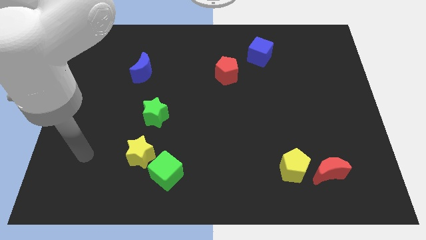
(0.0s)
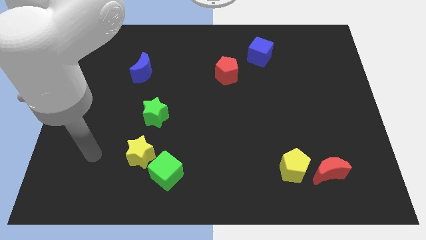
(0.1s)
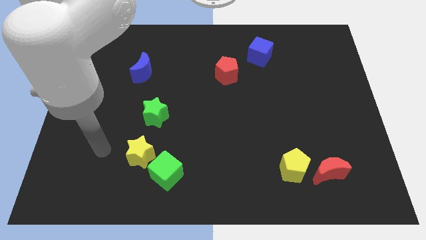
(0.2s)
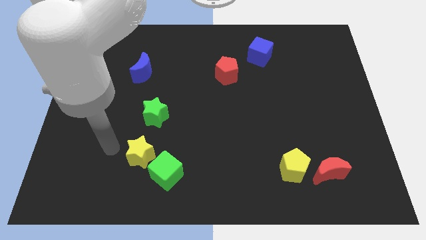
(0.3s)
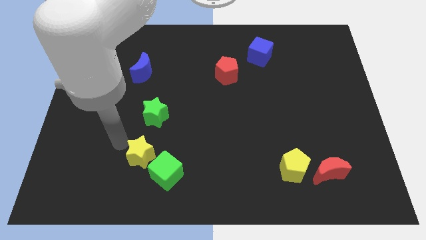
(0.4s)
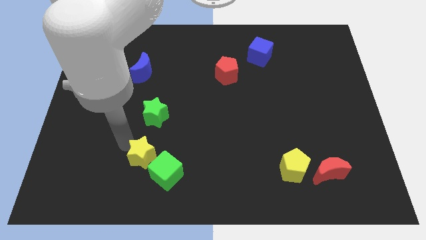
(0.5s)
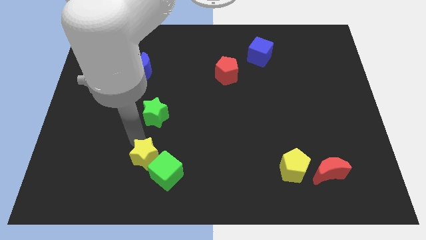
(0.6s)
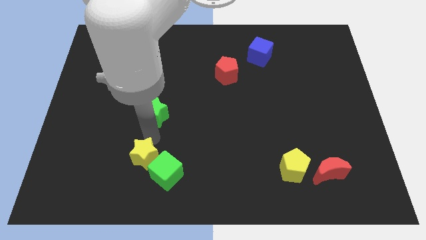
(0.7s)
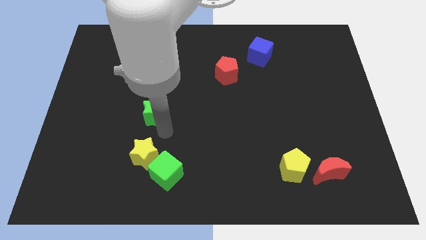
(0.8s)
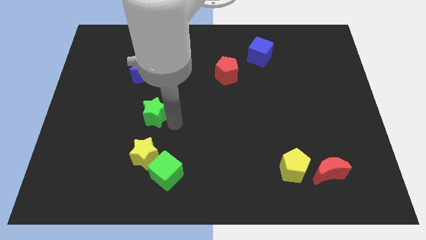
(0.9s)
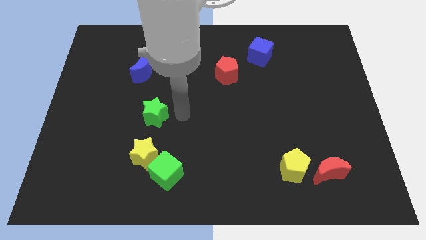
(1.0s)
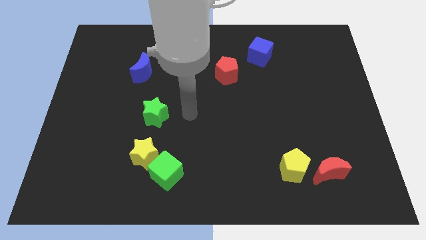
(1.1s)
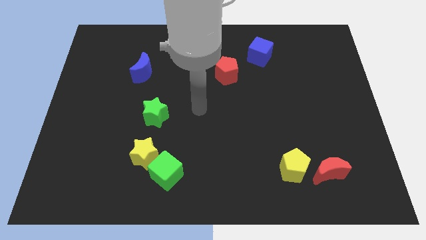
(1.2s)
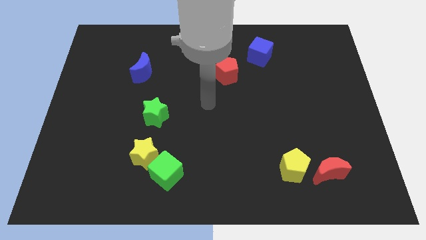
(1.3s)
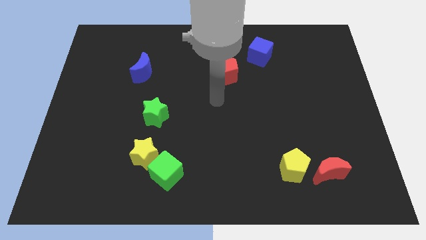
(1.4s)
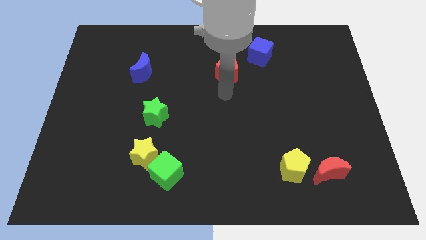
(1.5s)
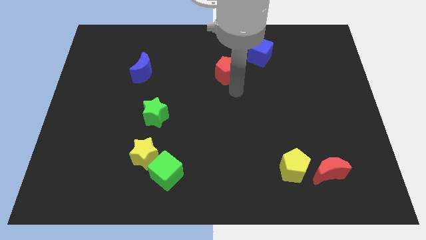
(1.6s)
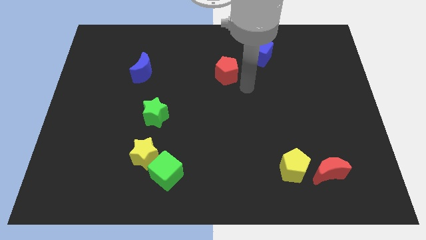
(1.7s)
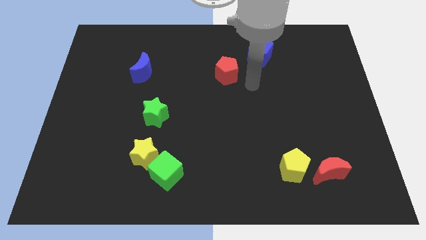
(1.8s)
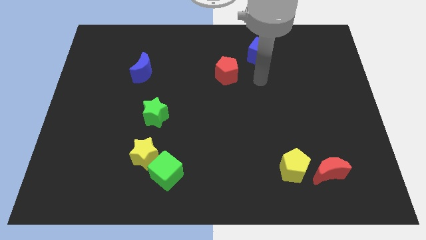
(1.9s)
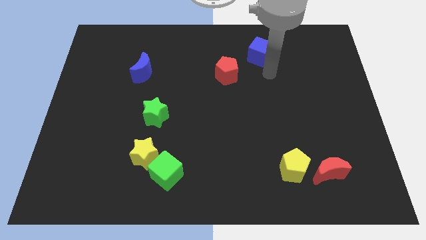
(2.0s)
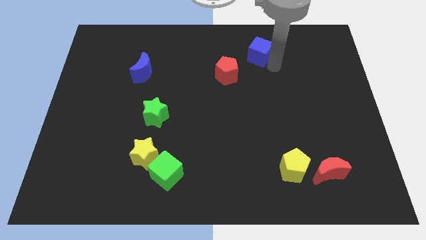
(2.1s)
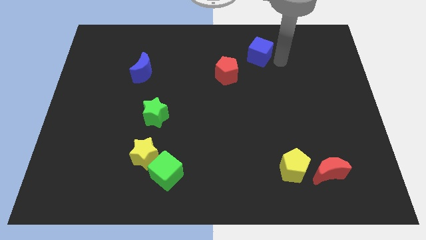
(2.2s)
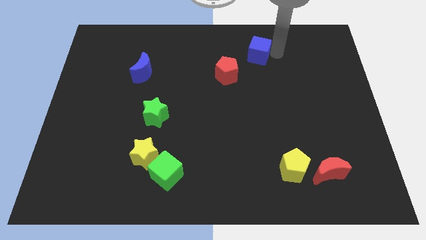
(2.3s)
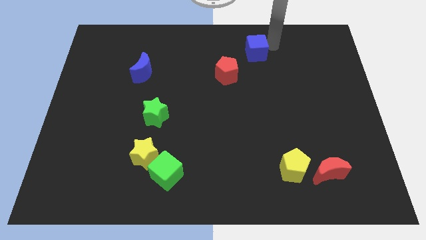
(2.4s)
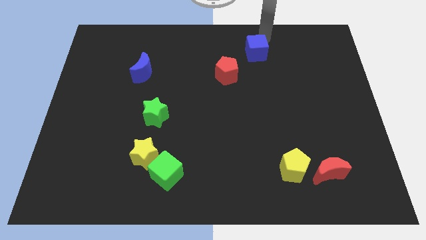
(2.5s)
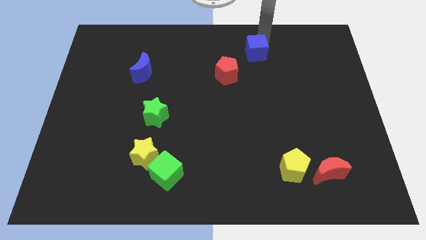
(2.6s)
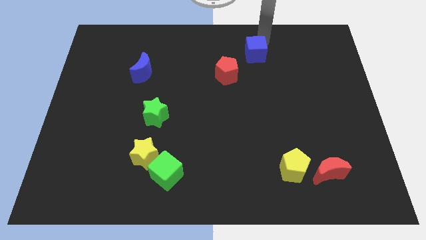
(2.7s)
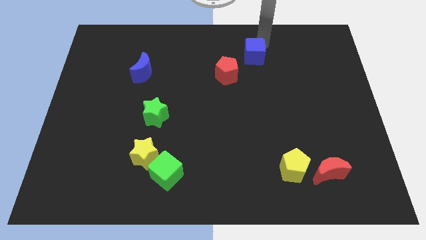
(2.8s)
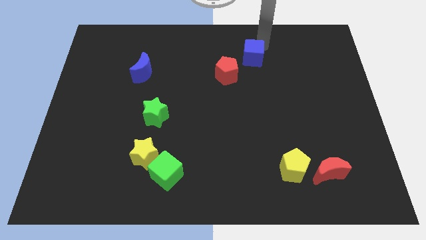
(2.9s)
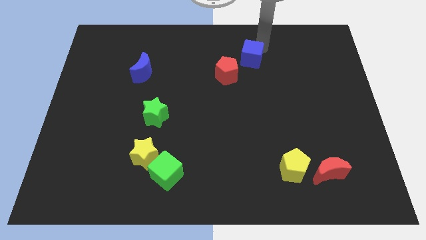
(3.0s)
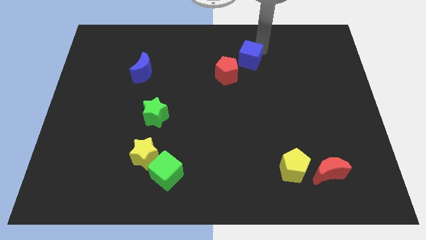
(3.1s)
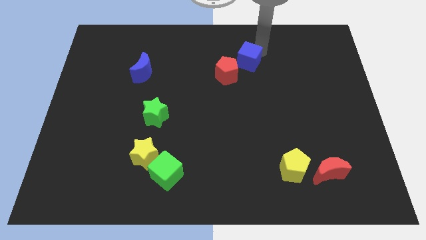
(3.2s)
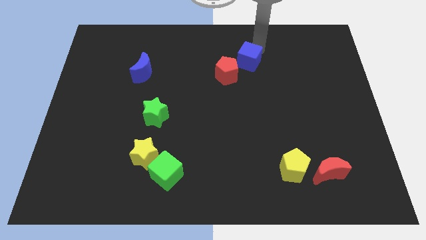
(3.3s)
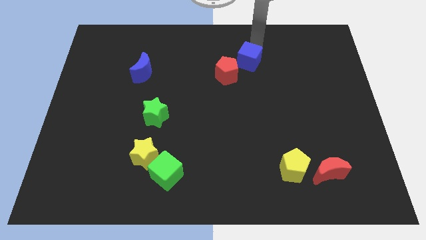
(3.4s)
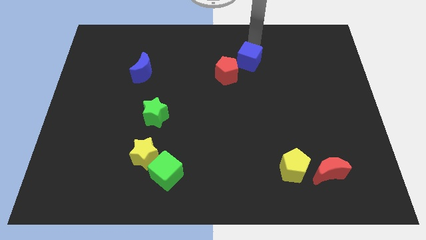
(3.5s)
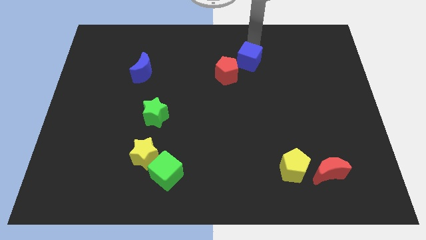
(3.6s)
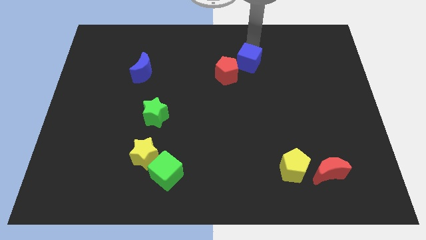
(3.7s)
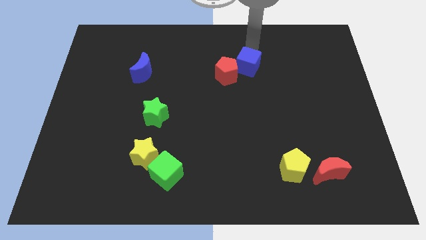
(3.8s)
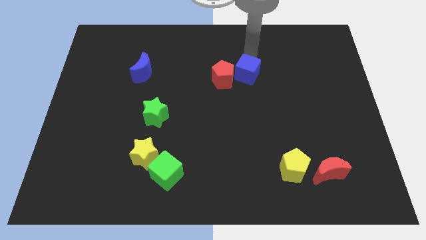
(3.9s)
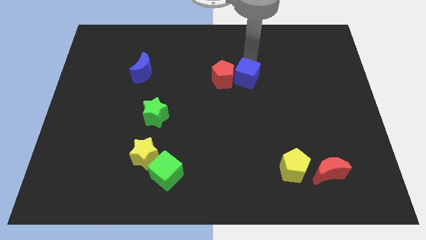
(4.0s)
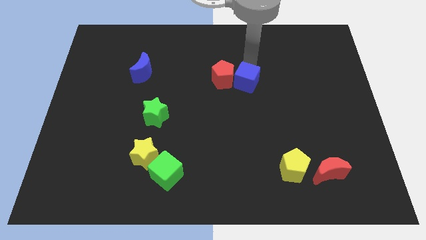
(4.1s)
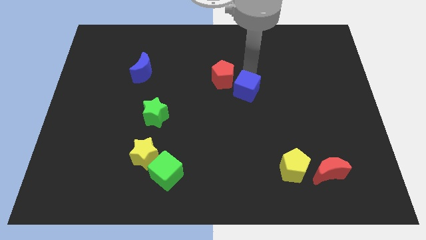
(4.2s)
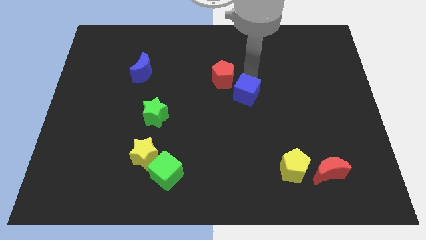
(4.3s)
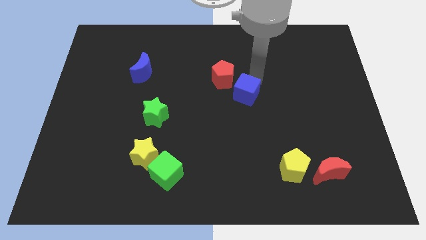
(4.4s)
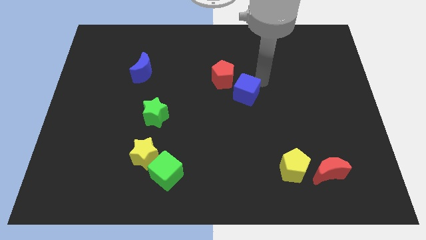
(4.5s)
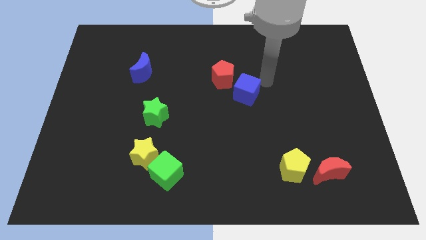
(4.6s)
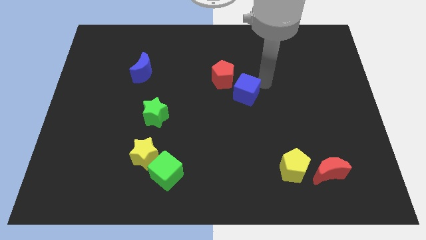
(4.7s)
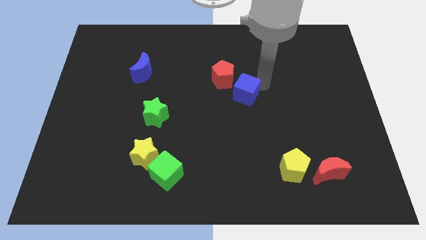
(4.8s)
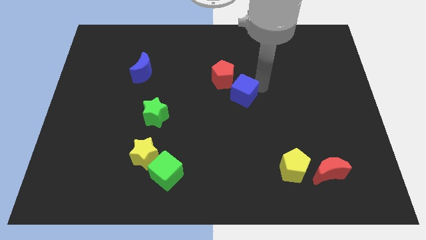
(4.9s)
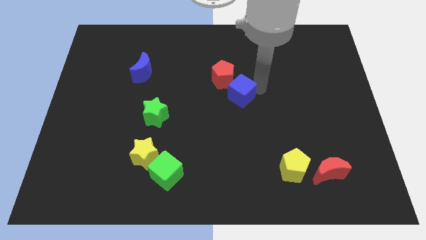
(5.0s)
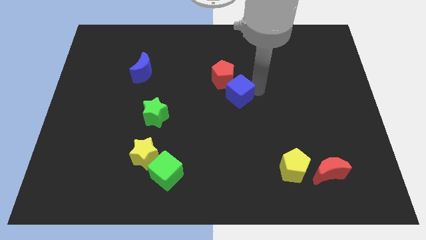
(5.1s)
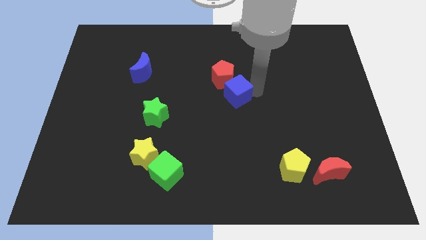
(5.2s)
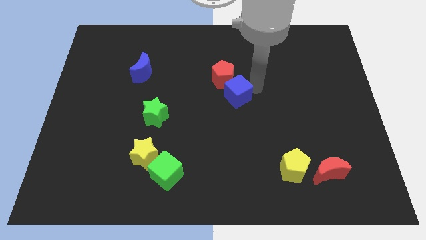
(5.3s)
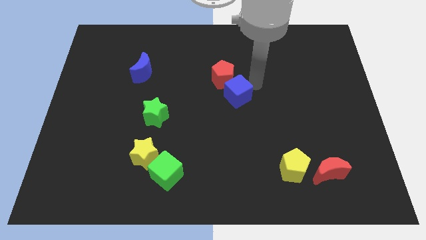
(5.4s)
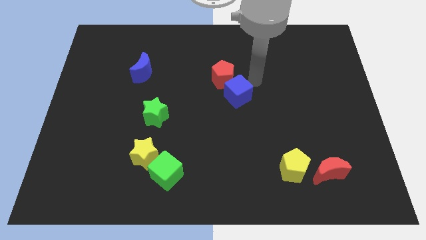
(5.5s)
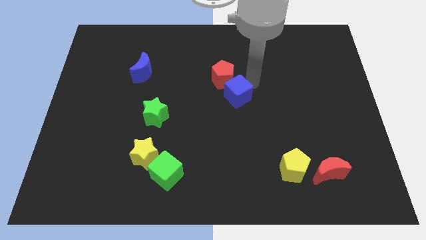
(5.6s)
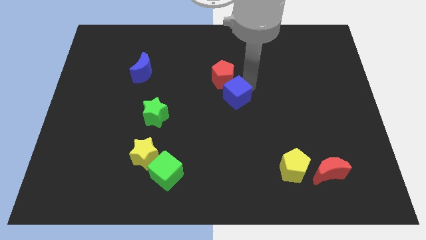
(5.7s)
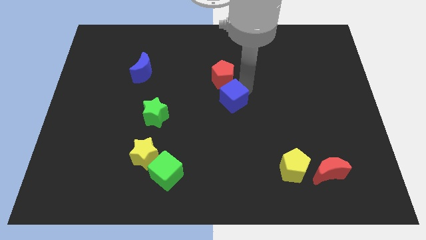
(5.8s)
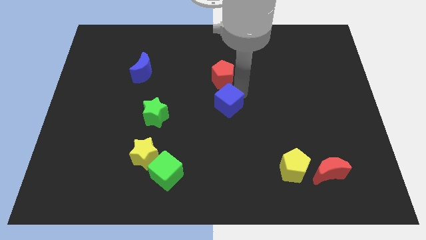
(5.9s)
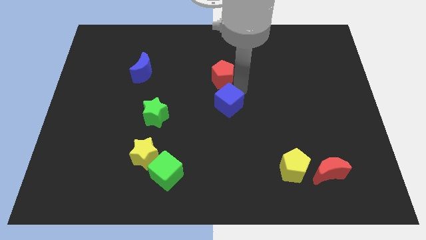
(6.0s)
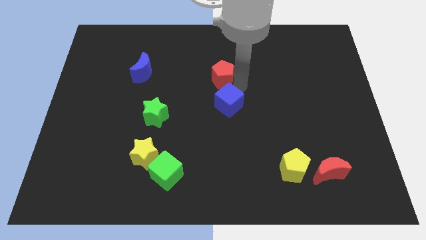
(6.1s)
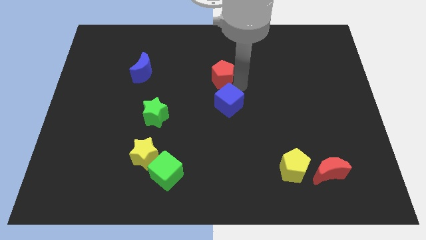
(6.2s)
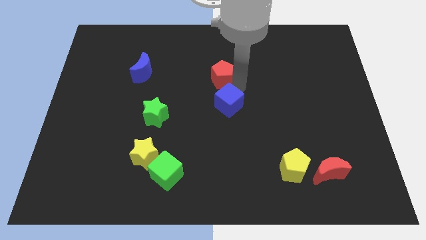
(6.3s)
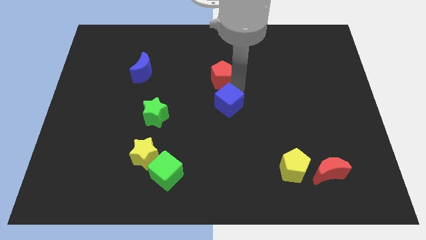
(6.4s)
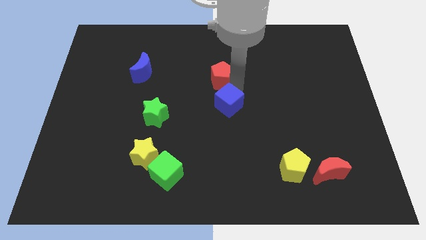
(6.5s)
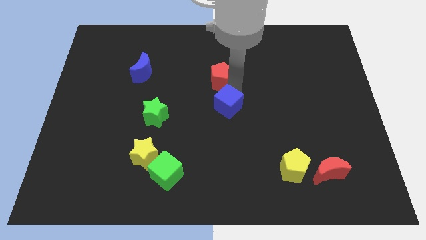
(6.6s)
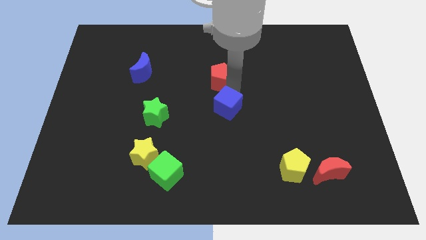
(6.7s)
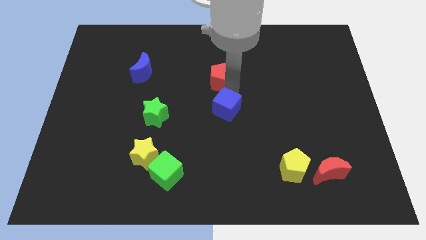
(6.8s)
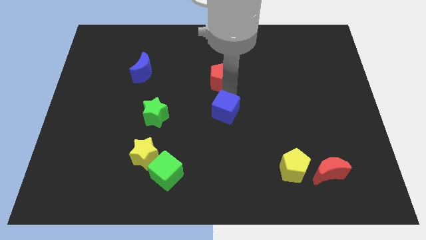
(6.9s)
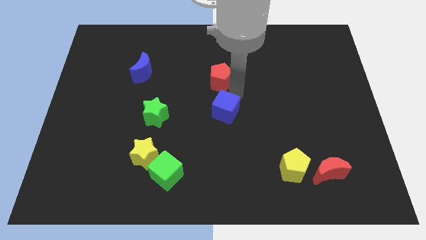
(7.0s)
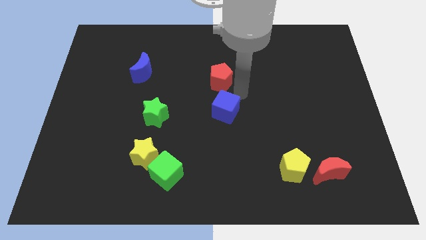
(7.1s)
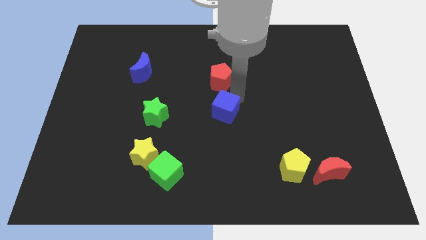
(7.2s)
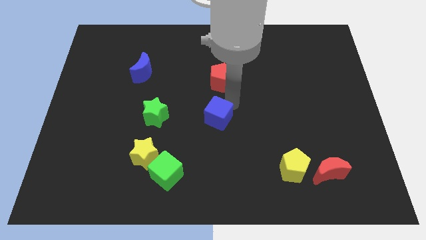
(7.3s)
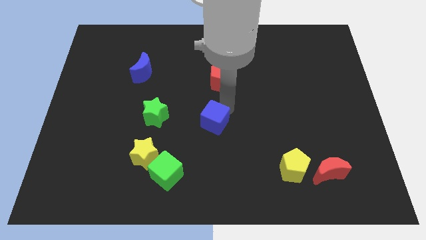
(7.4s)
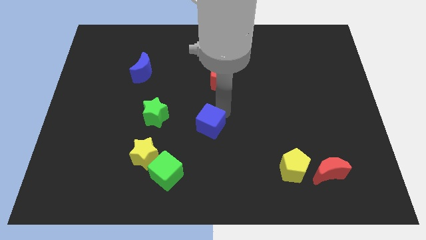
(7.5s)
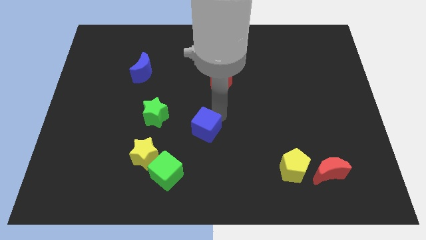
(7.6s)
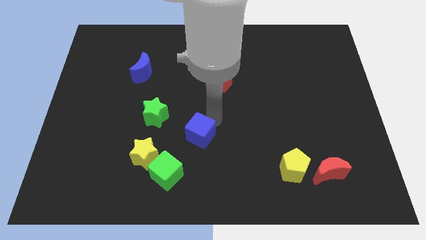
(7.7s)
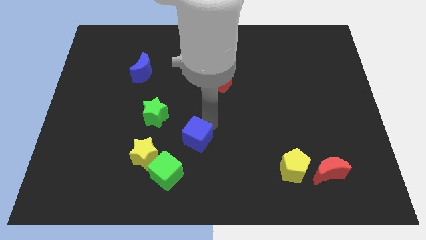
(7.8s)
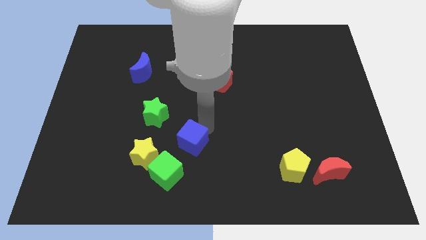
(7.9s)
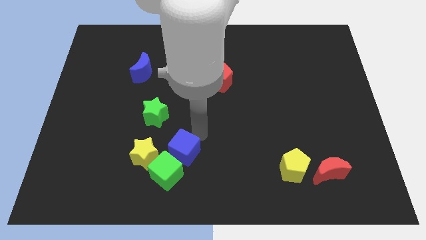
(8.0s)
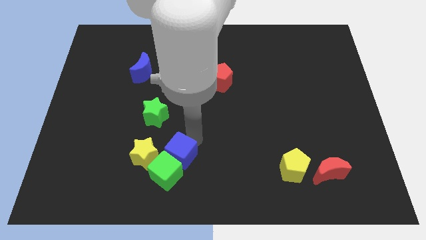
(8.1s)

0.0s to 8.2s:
slide the blue cube next to the green cube
